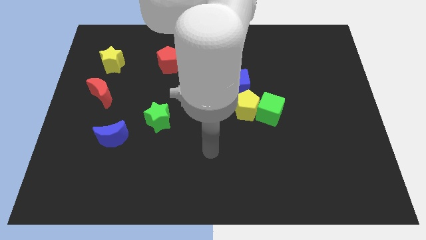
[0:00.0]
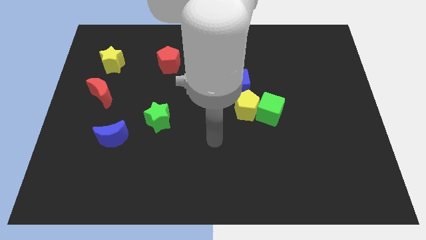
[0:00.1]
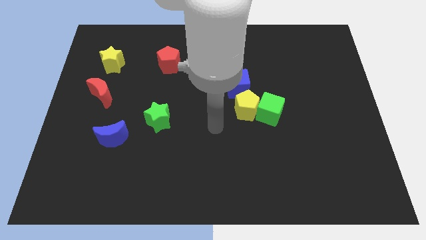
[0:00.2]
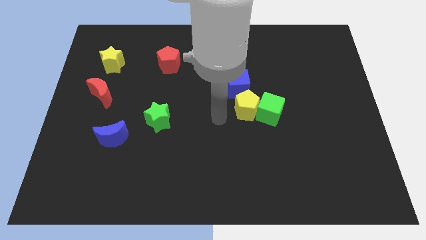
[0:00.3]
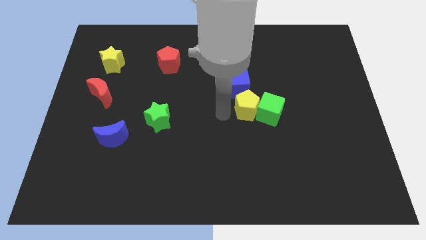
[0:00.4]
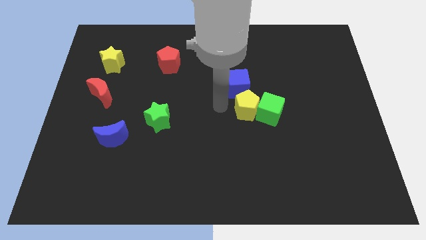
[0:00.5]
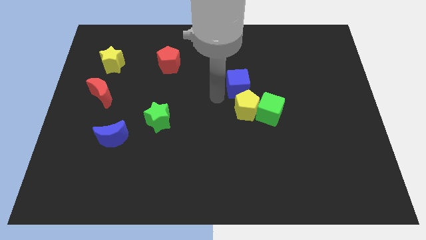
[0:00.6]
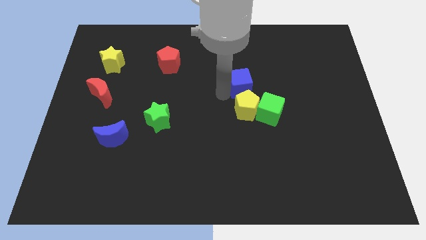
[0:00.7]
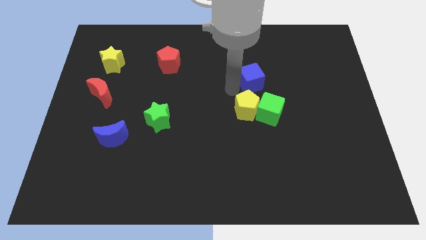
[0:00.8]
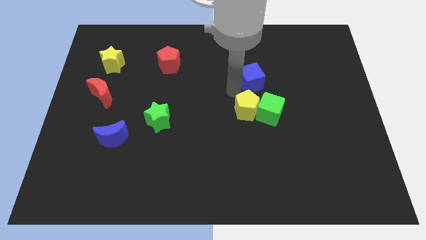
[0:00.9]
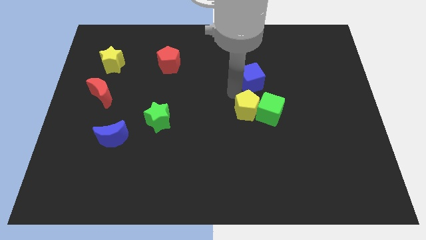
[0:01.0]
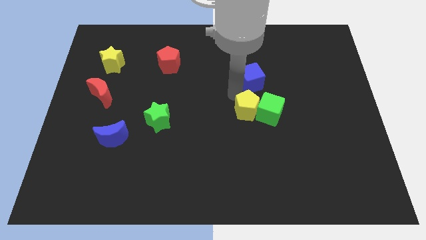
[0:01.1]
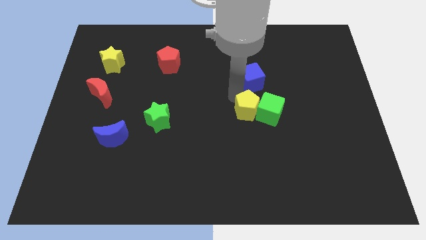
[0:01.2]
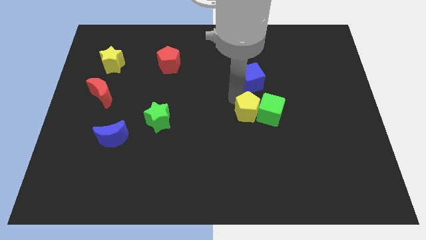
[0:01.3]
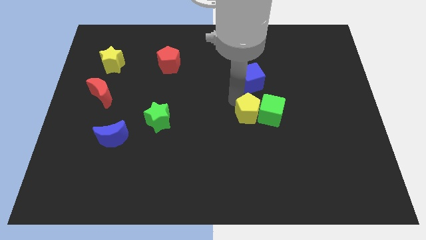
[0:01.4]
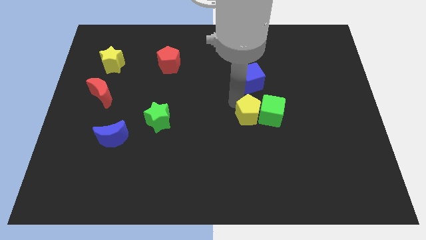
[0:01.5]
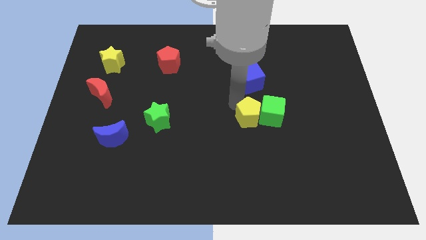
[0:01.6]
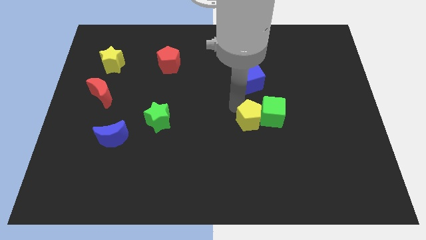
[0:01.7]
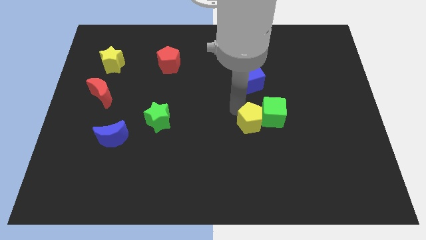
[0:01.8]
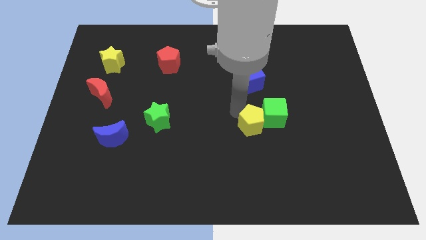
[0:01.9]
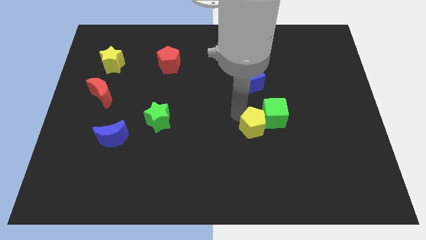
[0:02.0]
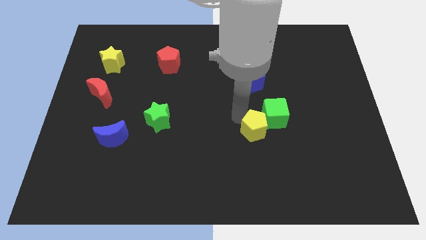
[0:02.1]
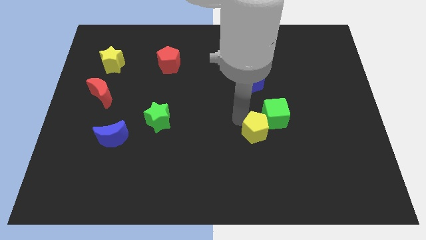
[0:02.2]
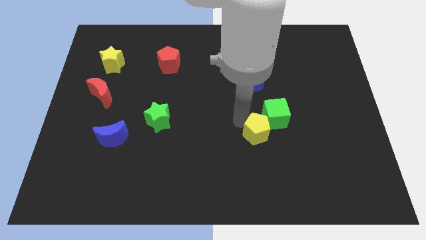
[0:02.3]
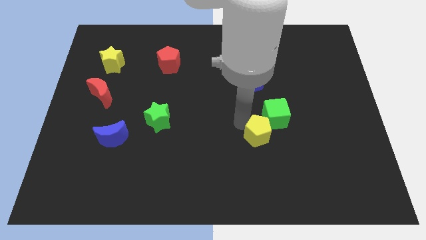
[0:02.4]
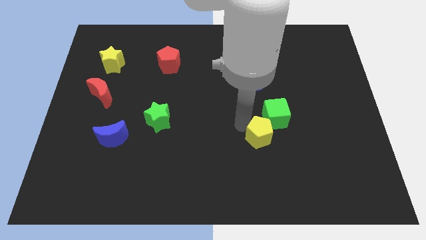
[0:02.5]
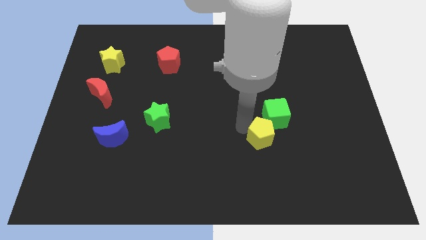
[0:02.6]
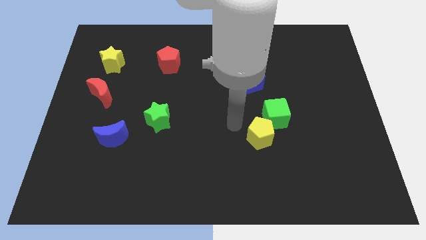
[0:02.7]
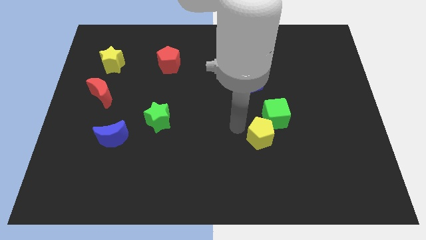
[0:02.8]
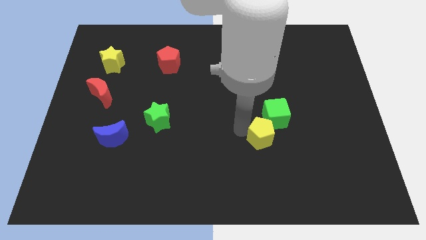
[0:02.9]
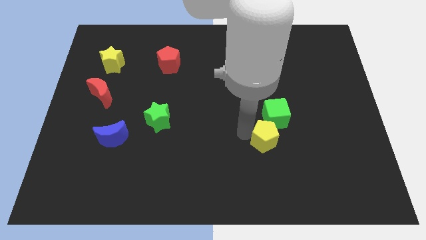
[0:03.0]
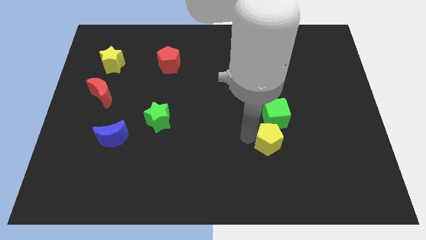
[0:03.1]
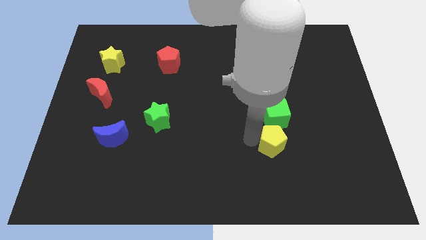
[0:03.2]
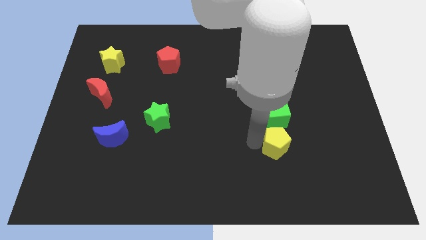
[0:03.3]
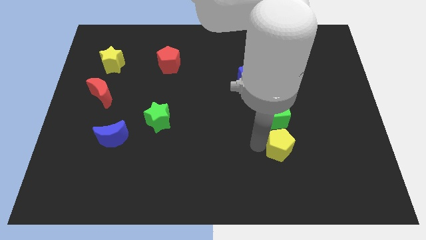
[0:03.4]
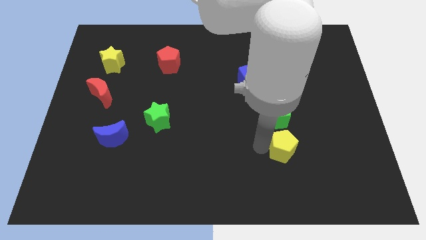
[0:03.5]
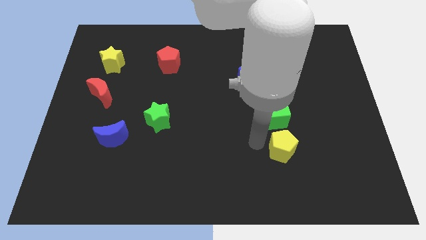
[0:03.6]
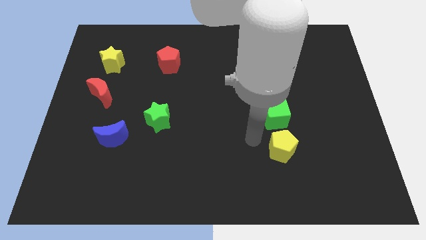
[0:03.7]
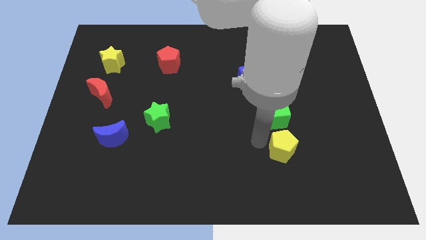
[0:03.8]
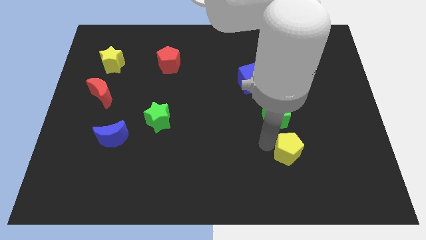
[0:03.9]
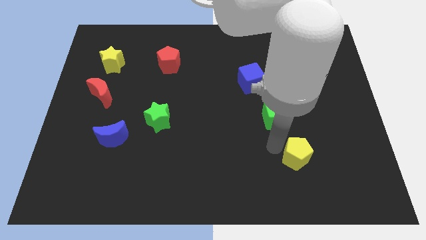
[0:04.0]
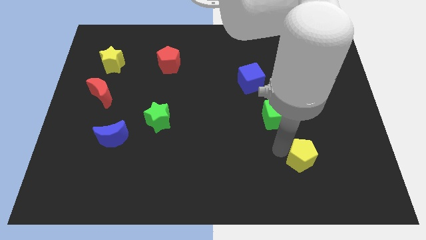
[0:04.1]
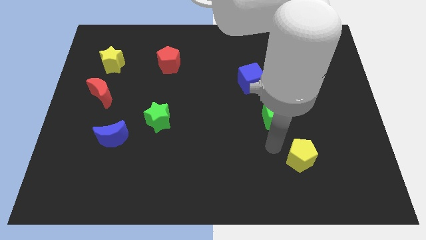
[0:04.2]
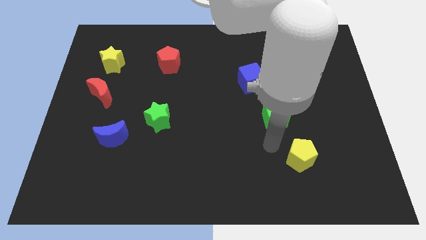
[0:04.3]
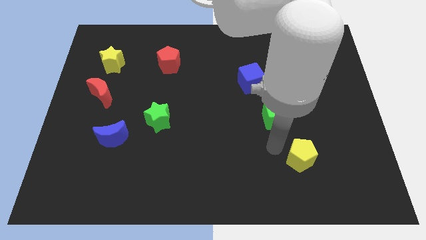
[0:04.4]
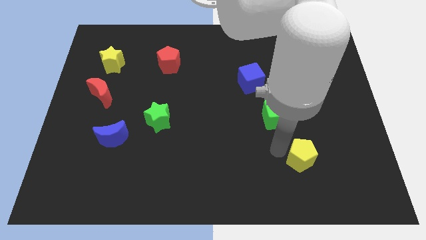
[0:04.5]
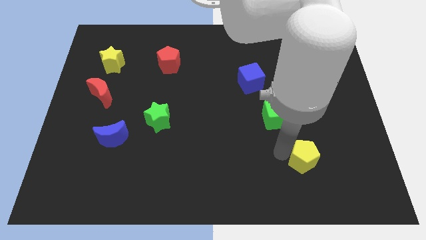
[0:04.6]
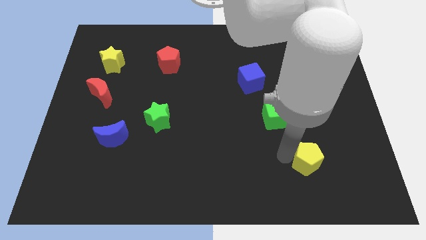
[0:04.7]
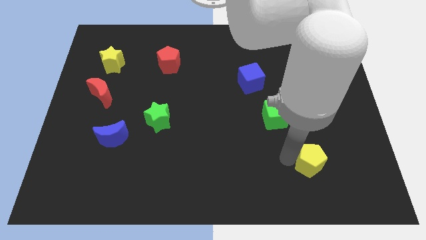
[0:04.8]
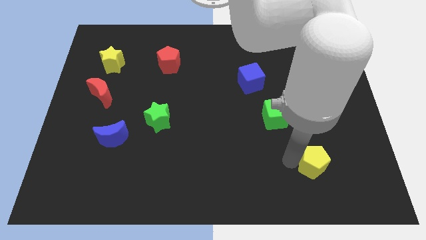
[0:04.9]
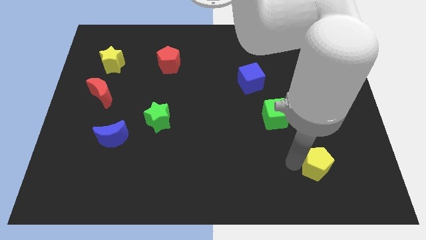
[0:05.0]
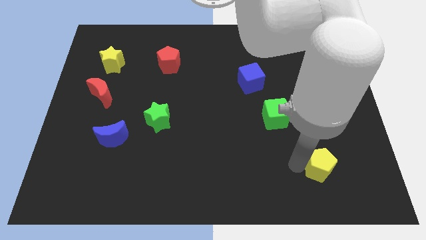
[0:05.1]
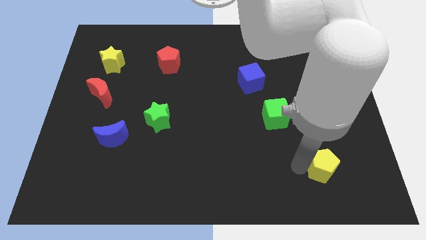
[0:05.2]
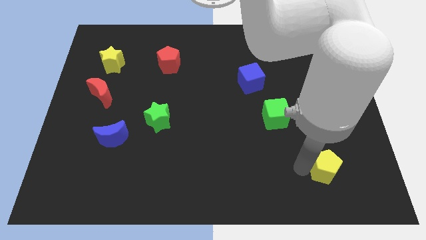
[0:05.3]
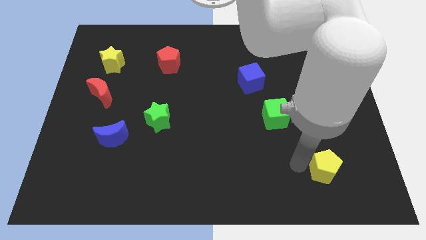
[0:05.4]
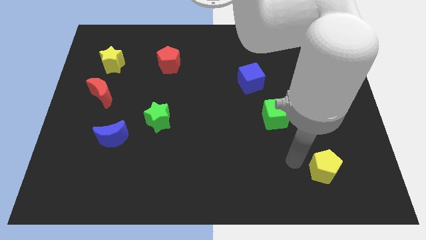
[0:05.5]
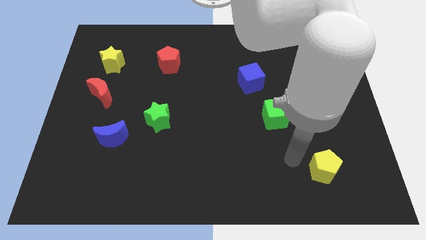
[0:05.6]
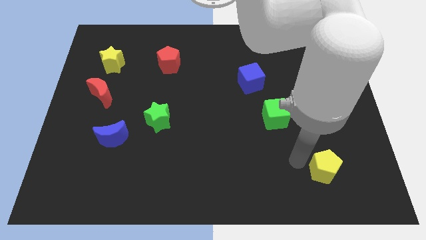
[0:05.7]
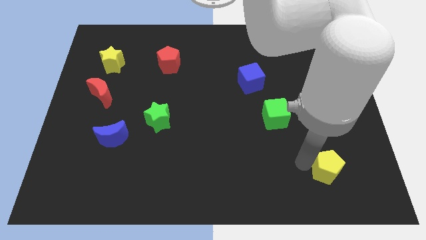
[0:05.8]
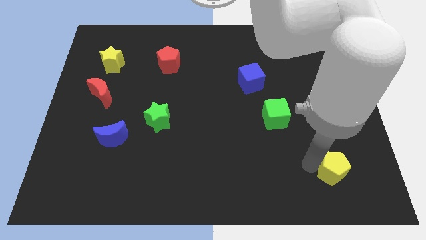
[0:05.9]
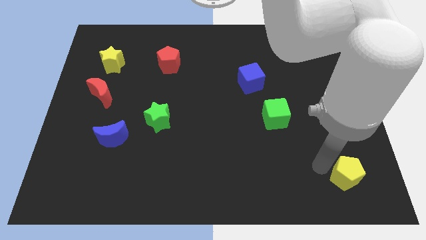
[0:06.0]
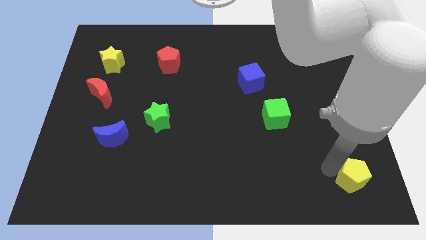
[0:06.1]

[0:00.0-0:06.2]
move the yellow pentagon to the bottom right of the board

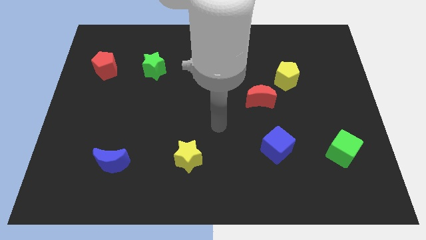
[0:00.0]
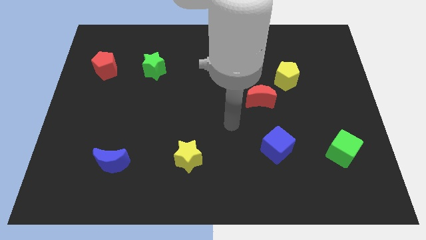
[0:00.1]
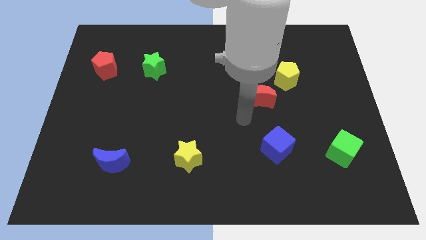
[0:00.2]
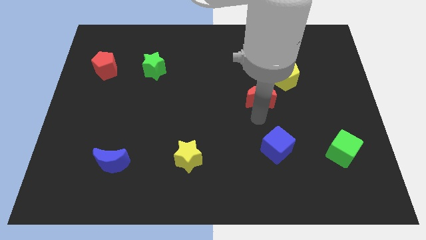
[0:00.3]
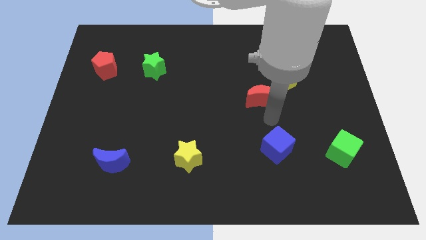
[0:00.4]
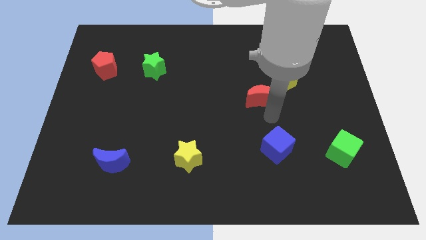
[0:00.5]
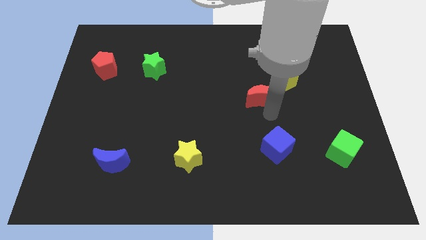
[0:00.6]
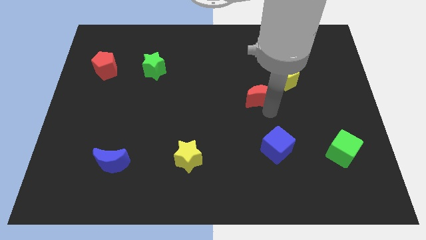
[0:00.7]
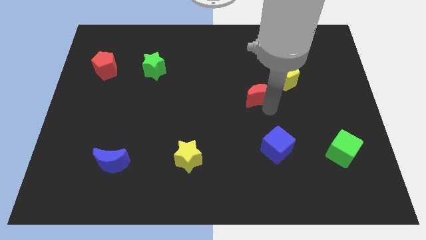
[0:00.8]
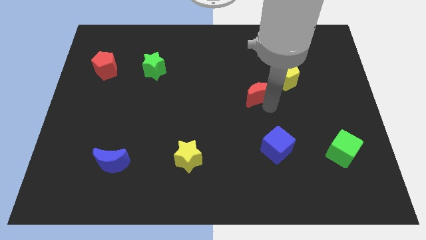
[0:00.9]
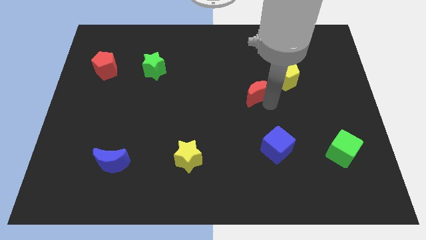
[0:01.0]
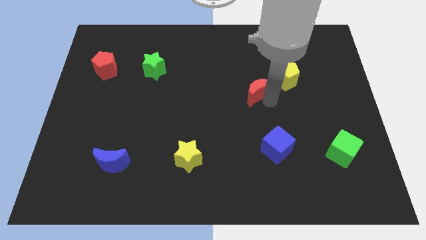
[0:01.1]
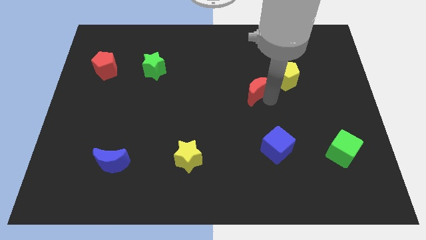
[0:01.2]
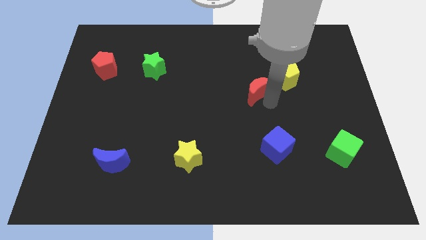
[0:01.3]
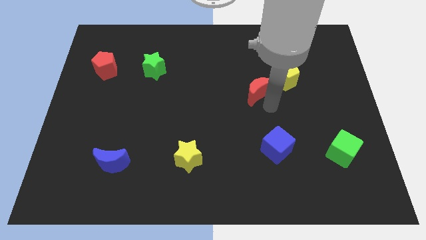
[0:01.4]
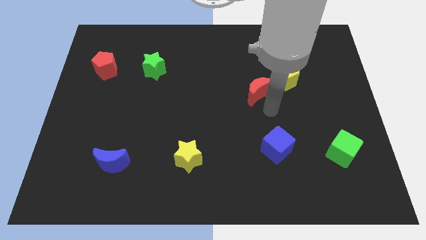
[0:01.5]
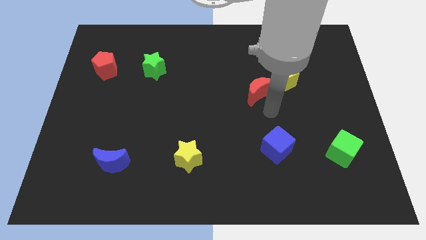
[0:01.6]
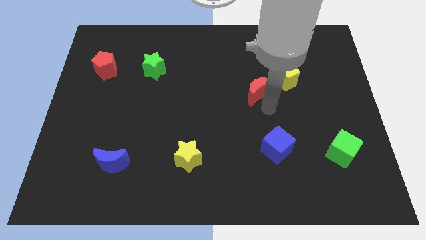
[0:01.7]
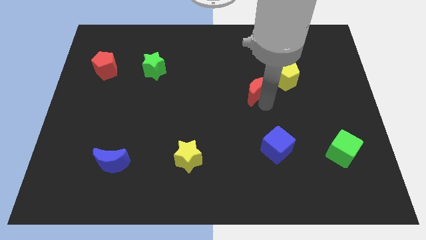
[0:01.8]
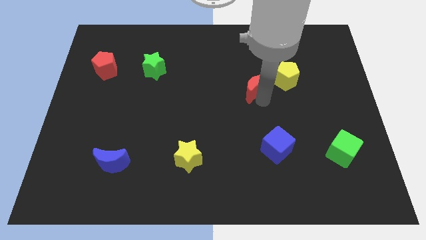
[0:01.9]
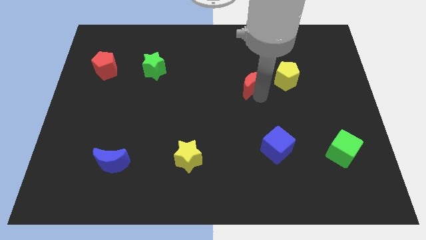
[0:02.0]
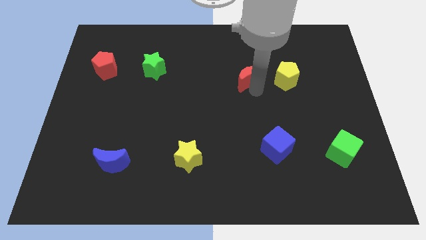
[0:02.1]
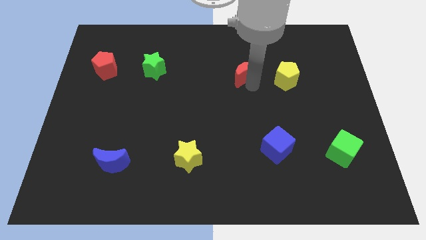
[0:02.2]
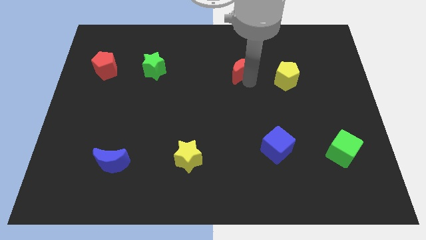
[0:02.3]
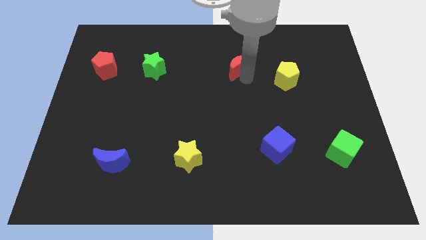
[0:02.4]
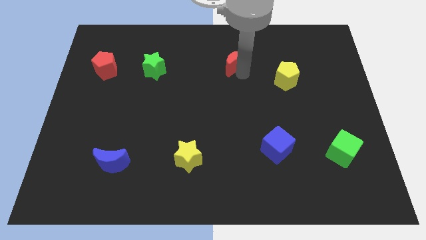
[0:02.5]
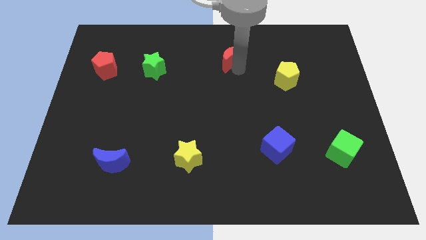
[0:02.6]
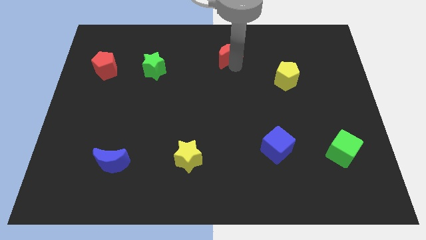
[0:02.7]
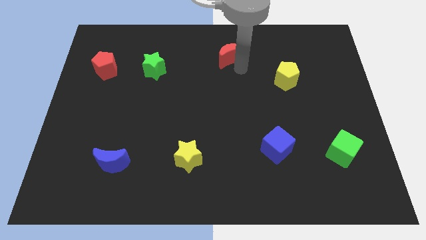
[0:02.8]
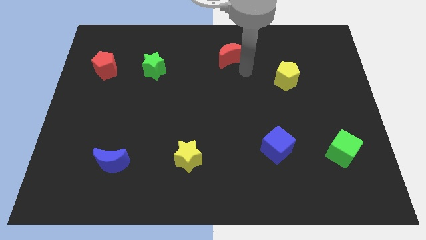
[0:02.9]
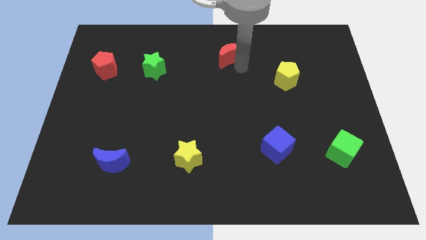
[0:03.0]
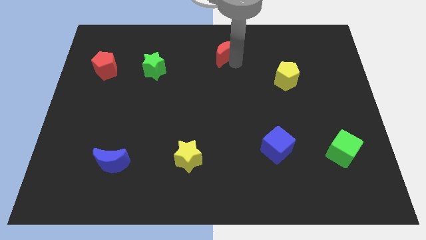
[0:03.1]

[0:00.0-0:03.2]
slide the red moon to the top side
